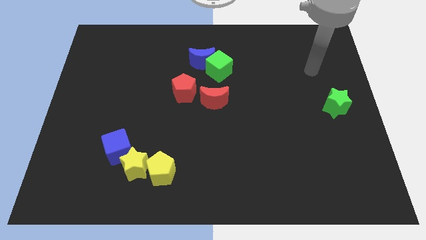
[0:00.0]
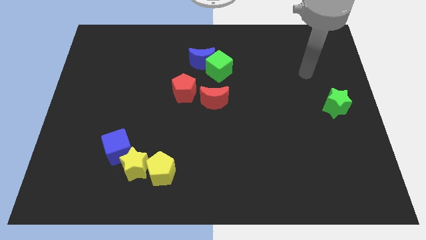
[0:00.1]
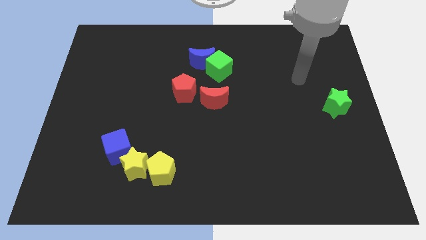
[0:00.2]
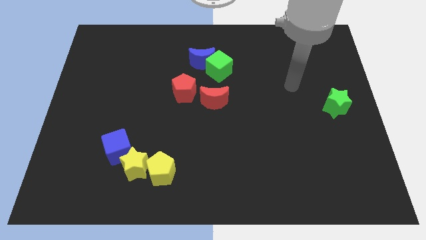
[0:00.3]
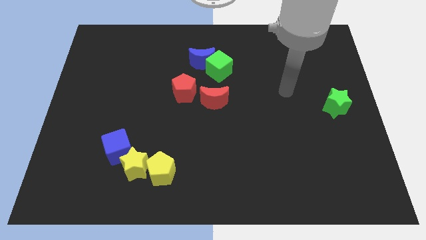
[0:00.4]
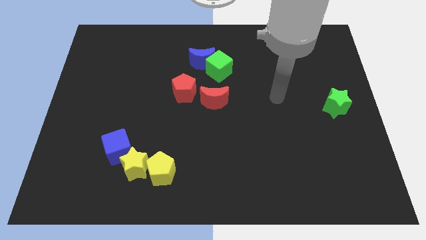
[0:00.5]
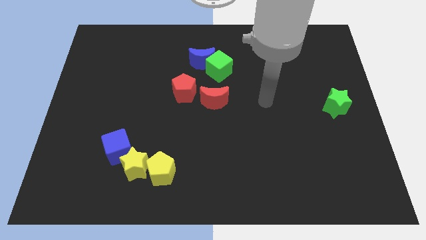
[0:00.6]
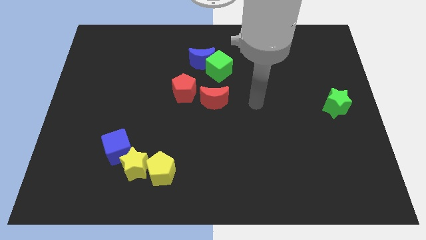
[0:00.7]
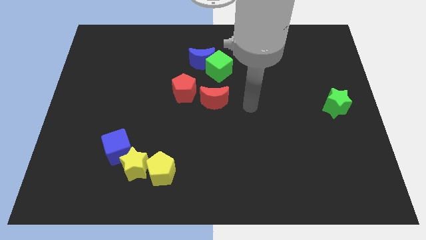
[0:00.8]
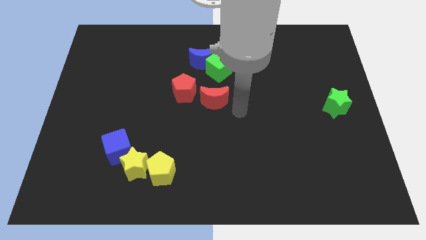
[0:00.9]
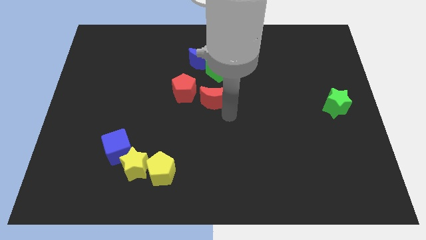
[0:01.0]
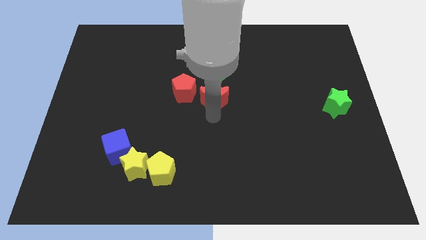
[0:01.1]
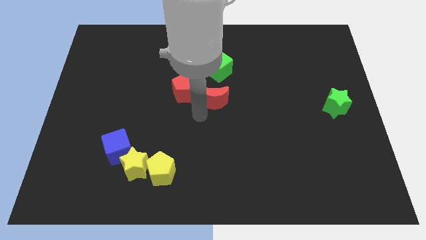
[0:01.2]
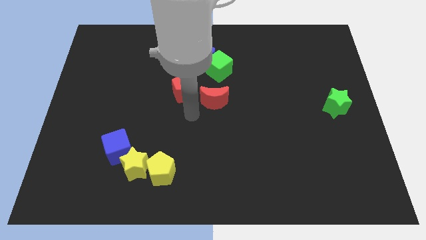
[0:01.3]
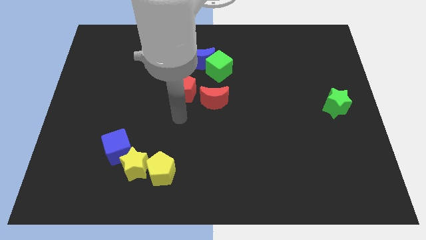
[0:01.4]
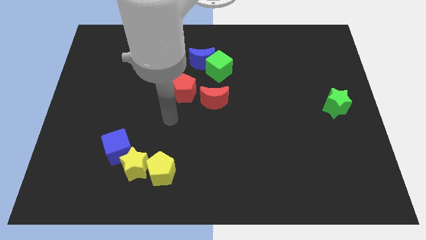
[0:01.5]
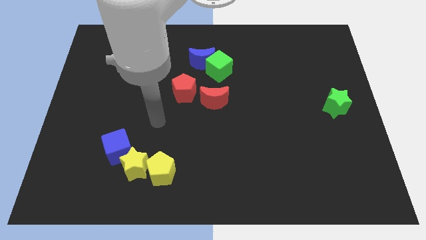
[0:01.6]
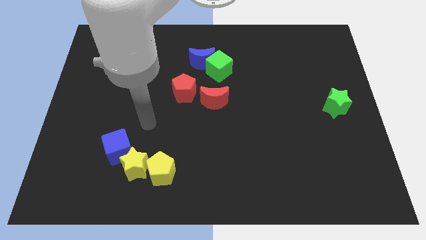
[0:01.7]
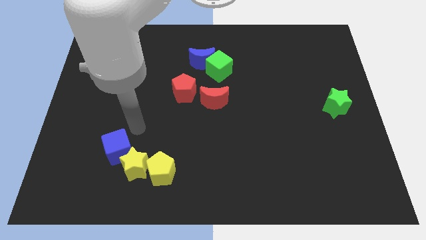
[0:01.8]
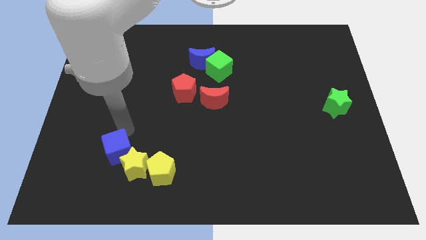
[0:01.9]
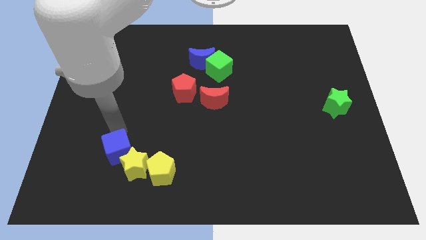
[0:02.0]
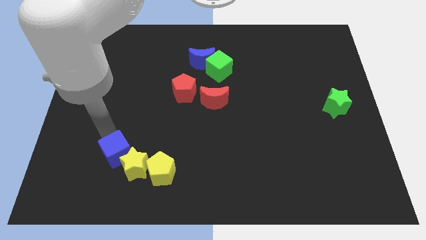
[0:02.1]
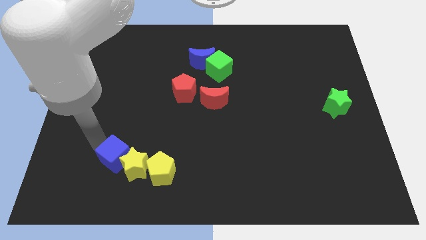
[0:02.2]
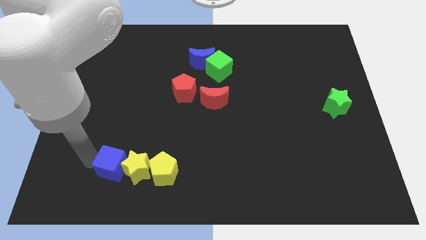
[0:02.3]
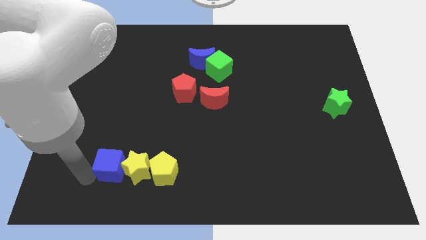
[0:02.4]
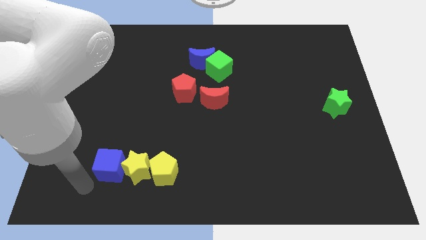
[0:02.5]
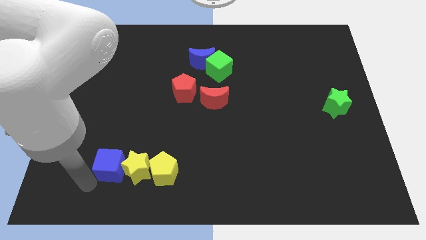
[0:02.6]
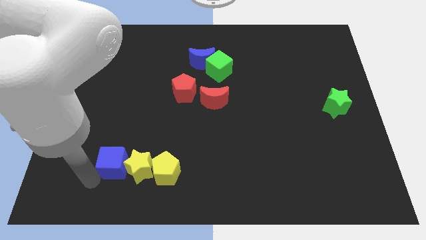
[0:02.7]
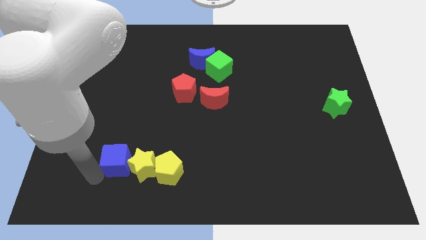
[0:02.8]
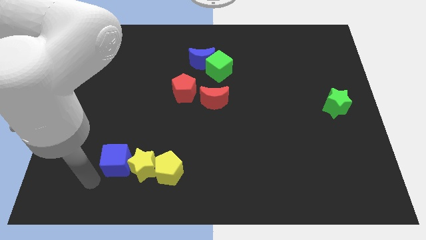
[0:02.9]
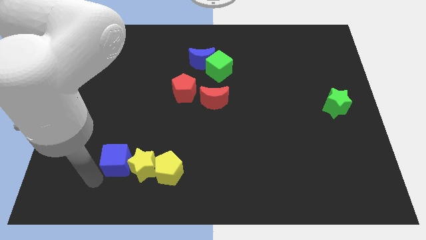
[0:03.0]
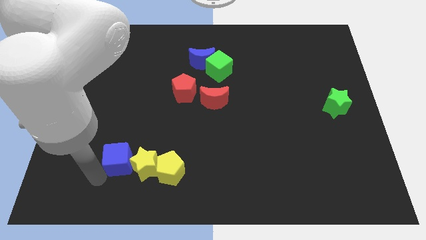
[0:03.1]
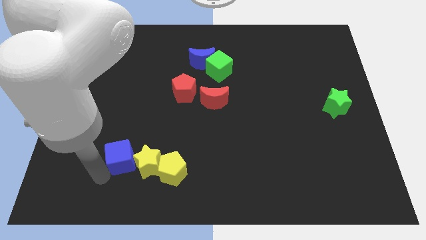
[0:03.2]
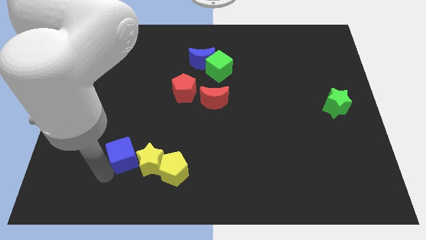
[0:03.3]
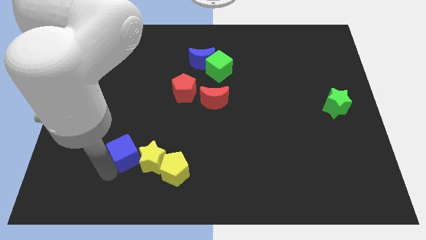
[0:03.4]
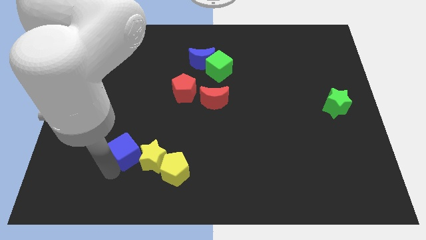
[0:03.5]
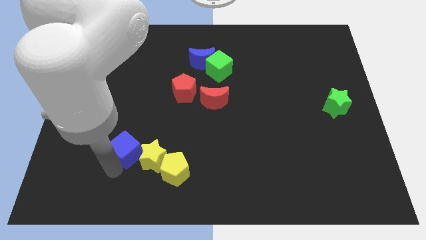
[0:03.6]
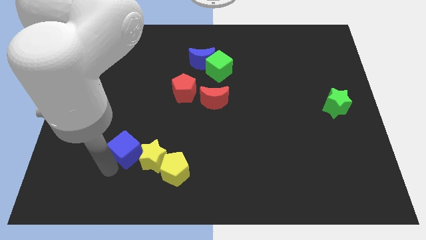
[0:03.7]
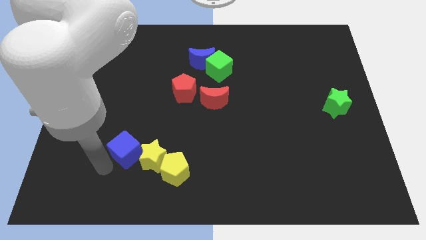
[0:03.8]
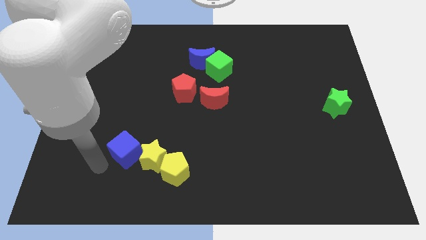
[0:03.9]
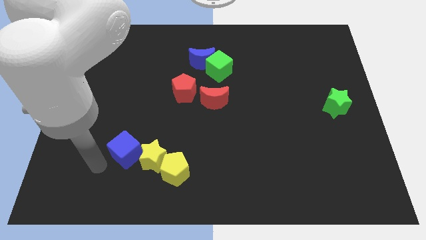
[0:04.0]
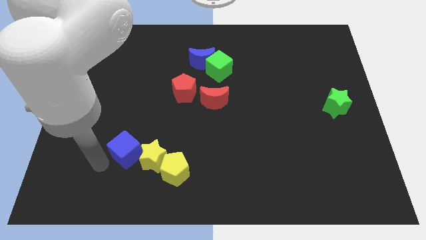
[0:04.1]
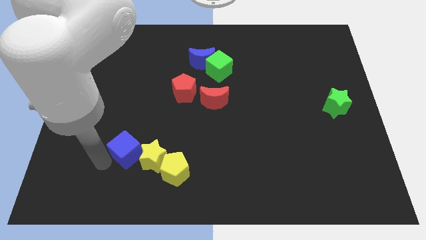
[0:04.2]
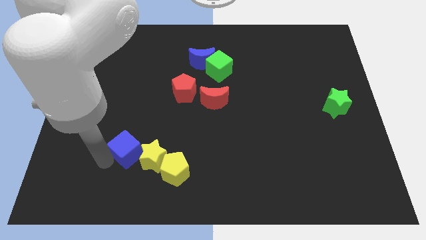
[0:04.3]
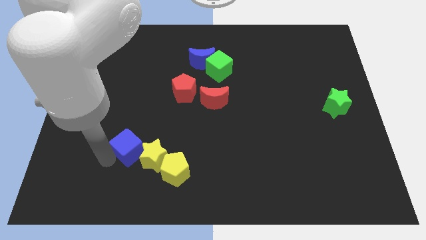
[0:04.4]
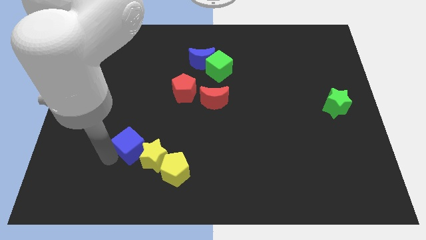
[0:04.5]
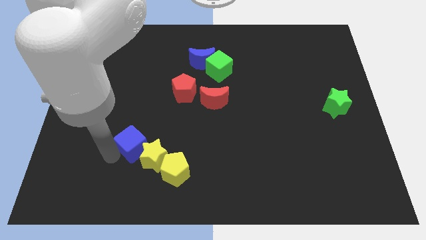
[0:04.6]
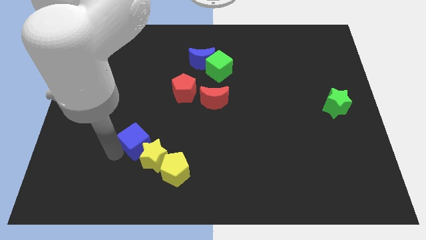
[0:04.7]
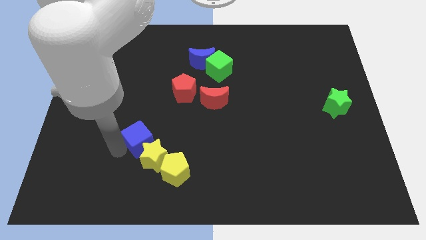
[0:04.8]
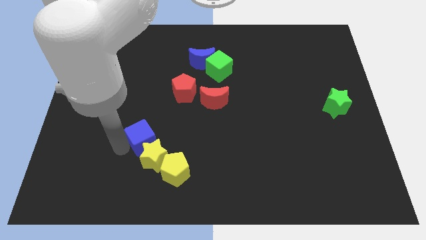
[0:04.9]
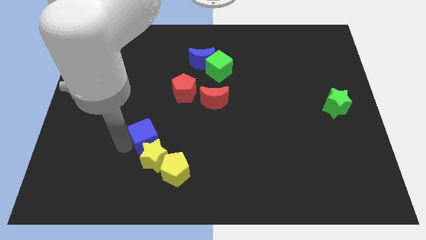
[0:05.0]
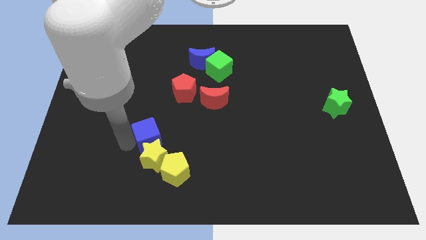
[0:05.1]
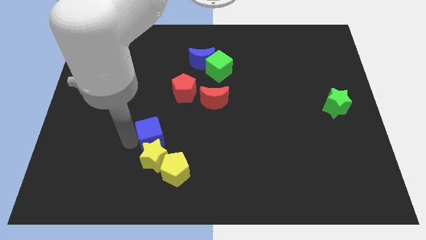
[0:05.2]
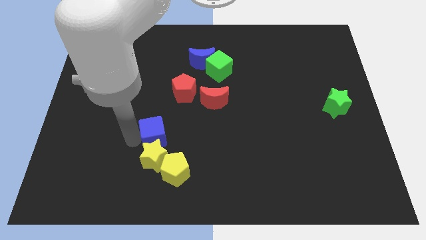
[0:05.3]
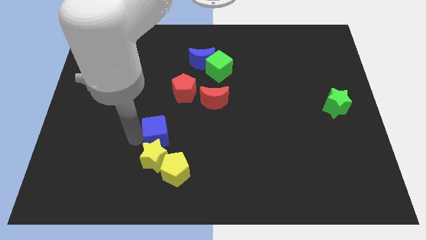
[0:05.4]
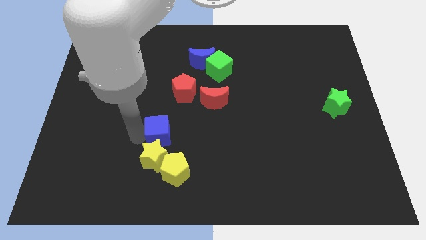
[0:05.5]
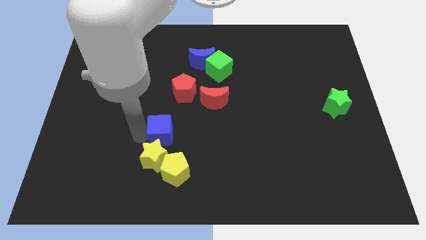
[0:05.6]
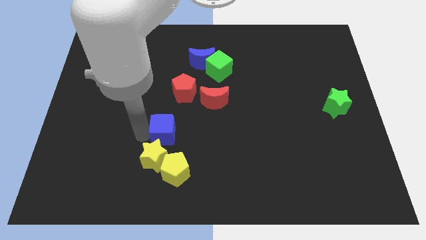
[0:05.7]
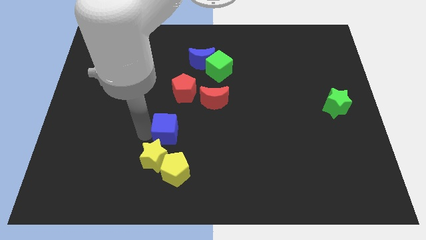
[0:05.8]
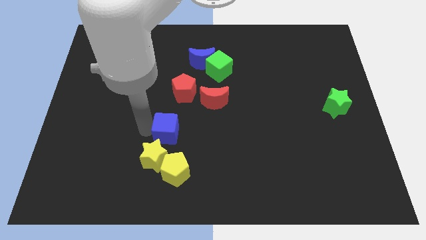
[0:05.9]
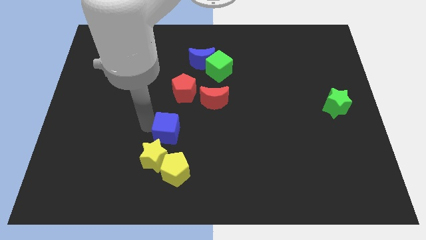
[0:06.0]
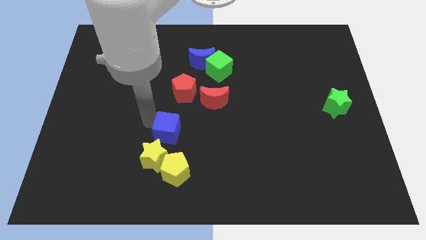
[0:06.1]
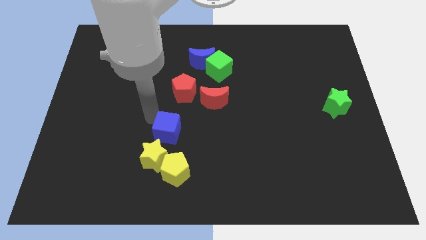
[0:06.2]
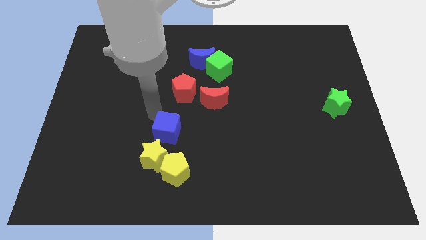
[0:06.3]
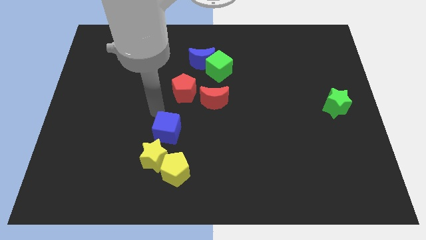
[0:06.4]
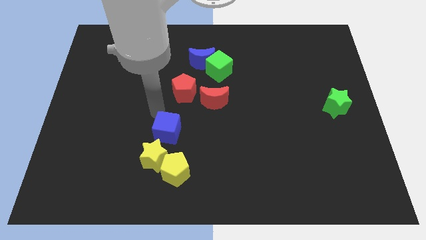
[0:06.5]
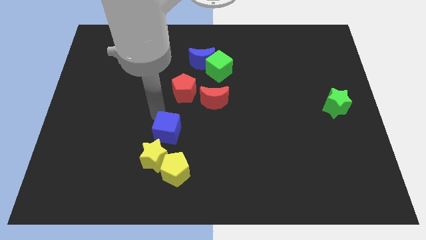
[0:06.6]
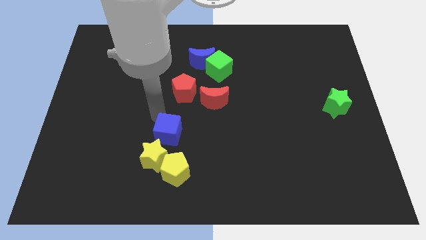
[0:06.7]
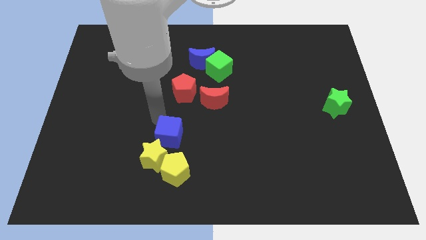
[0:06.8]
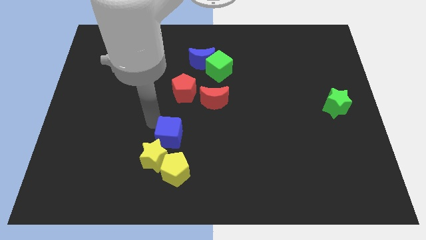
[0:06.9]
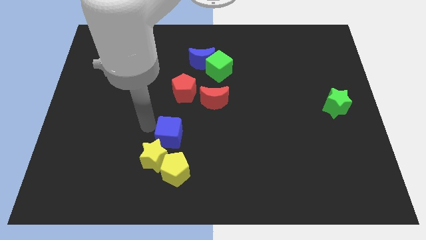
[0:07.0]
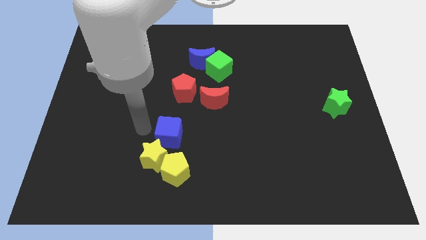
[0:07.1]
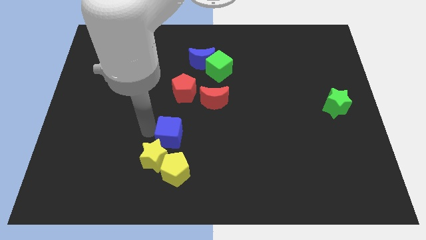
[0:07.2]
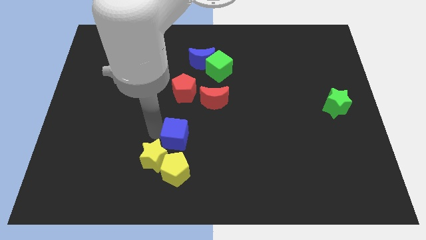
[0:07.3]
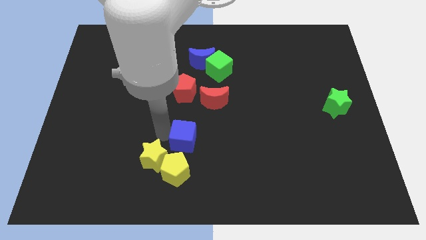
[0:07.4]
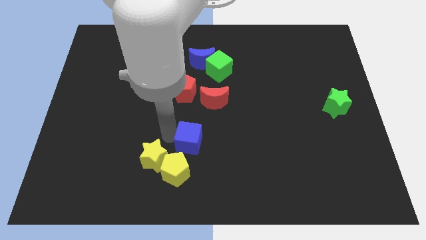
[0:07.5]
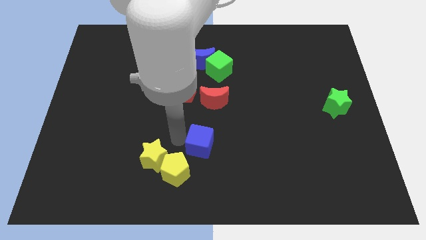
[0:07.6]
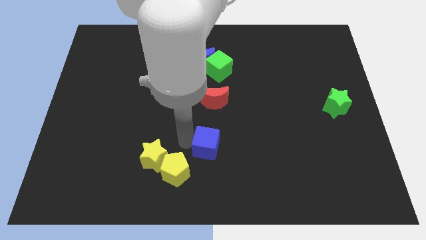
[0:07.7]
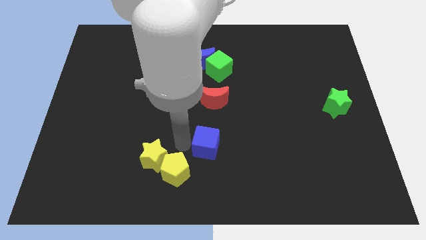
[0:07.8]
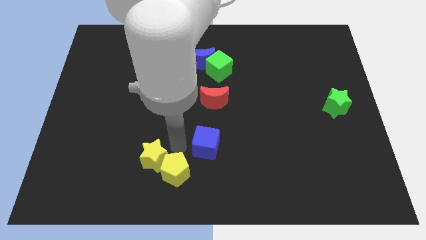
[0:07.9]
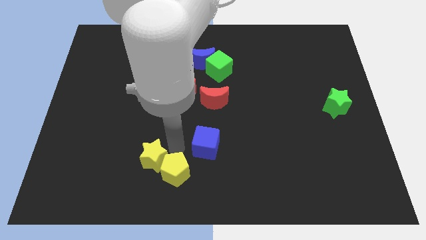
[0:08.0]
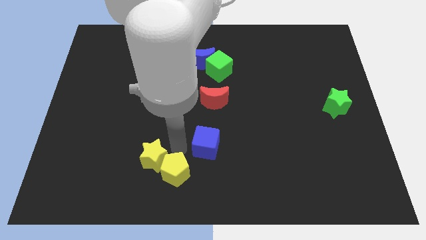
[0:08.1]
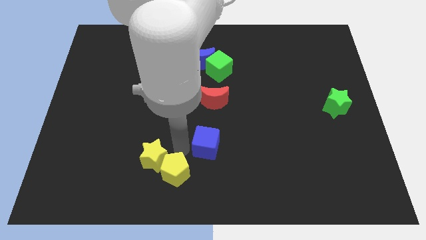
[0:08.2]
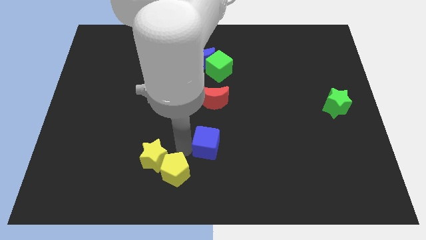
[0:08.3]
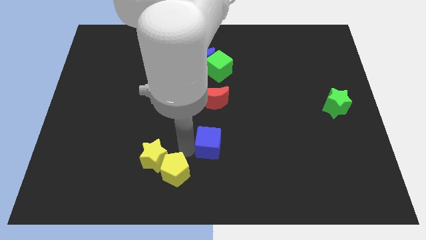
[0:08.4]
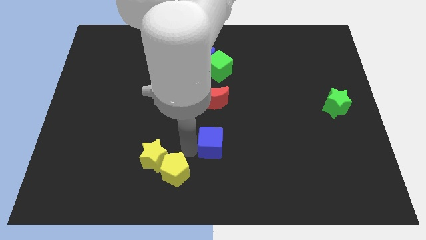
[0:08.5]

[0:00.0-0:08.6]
push the blue cube to the right
